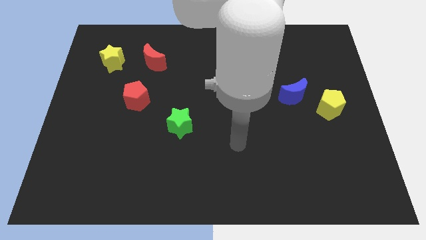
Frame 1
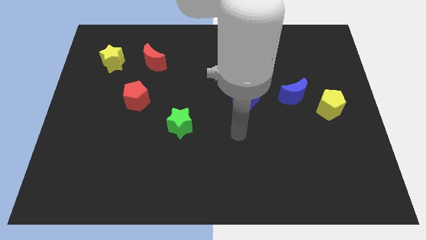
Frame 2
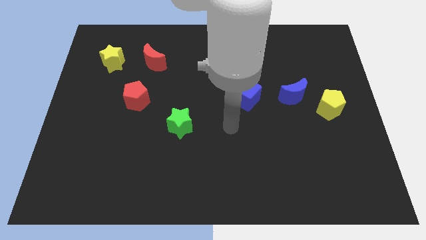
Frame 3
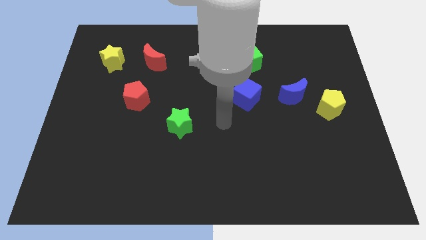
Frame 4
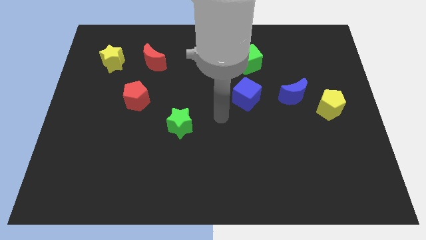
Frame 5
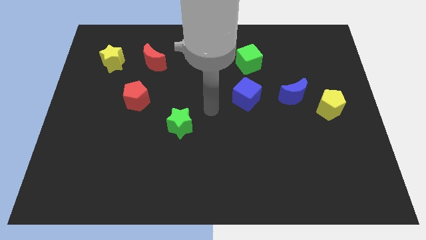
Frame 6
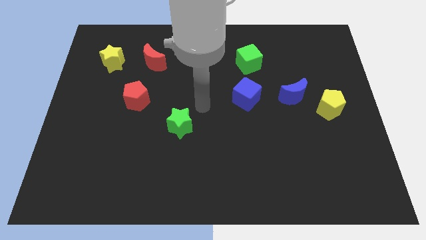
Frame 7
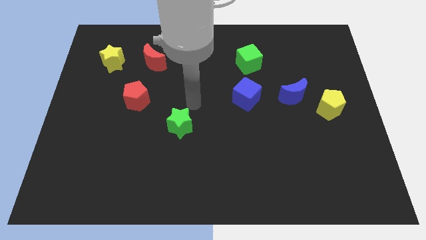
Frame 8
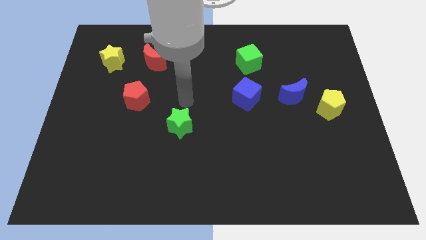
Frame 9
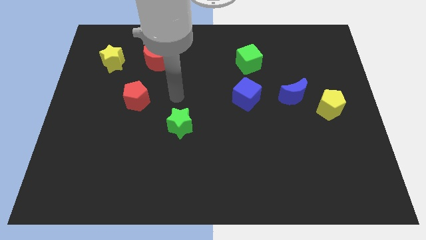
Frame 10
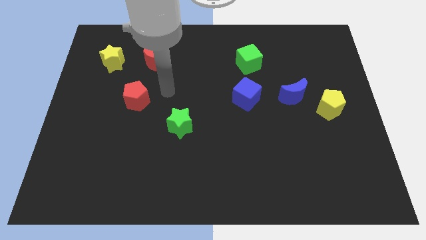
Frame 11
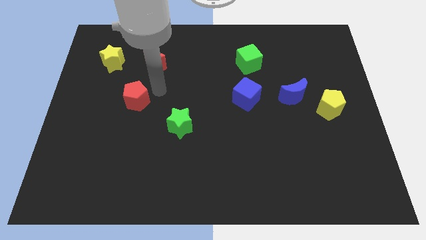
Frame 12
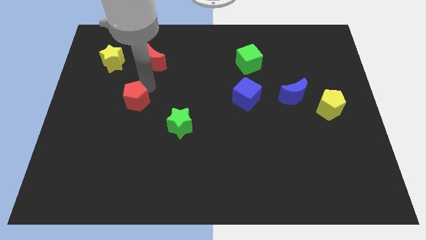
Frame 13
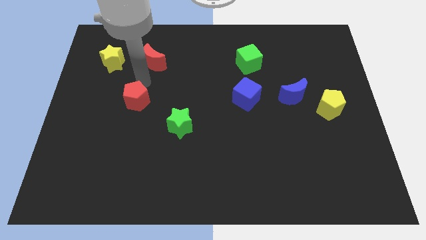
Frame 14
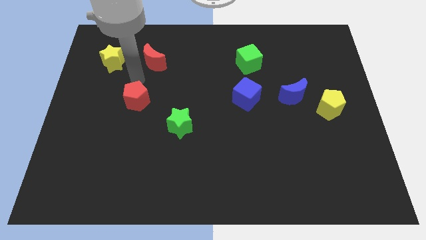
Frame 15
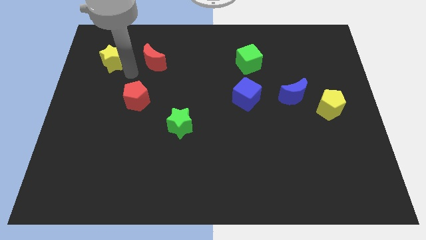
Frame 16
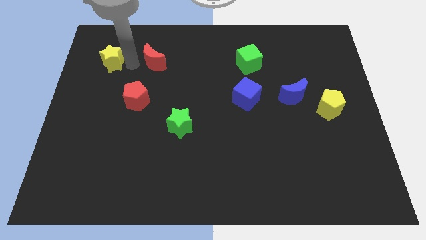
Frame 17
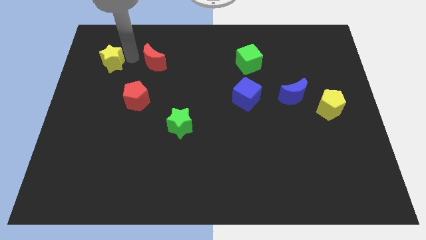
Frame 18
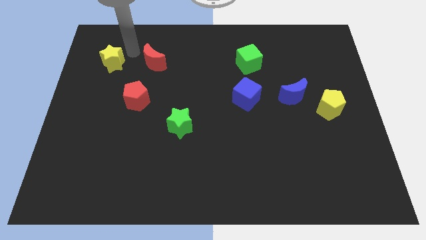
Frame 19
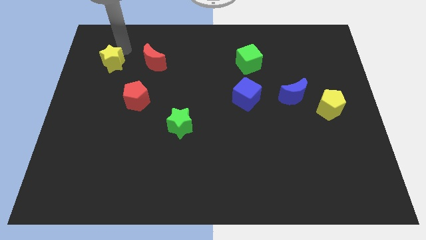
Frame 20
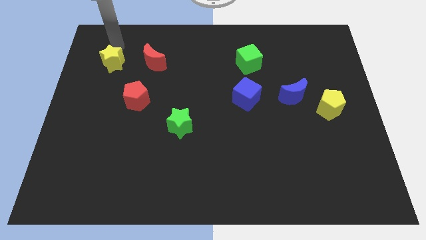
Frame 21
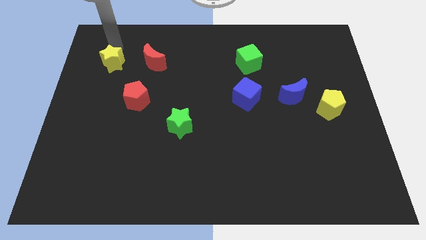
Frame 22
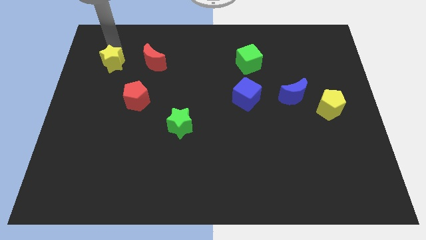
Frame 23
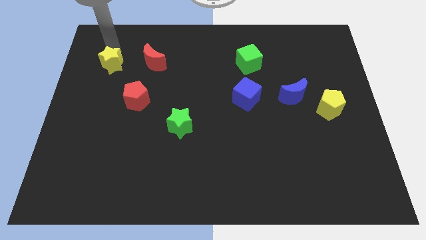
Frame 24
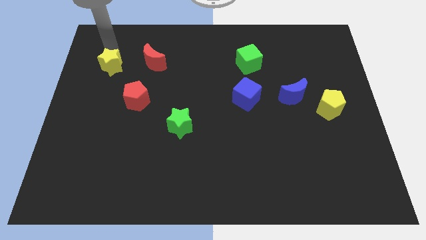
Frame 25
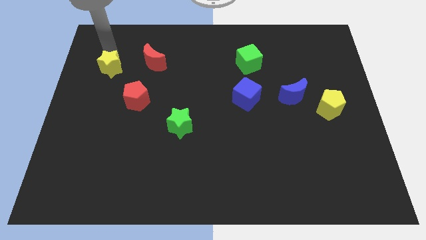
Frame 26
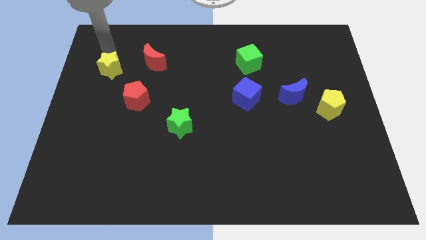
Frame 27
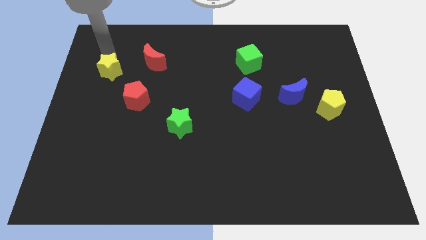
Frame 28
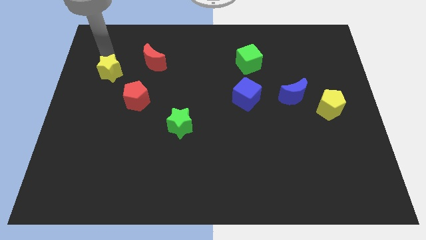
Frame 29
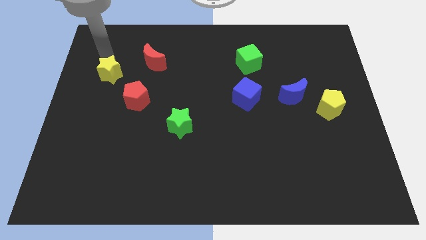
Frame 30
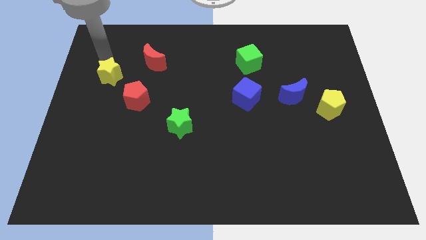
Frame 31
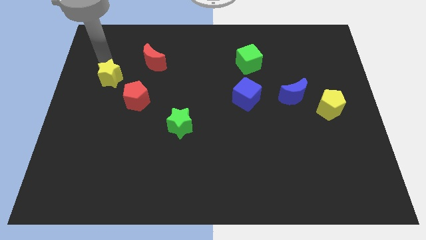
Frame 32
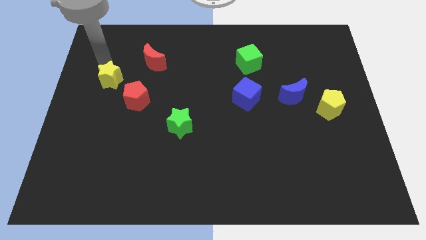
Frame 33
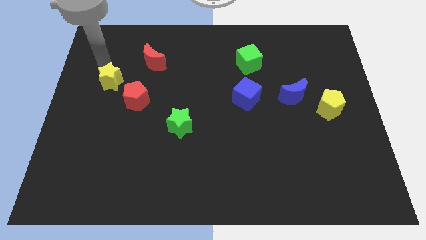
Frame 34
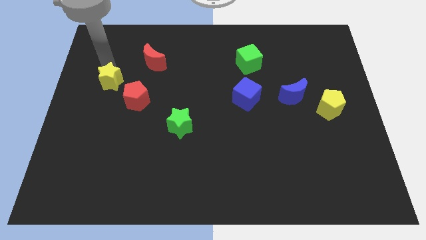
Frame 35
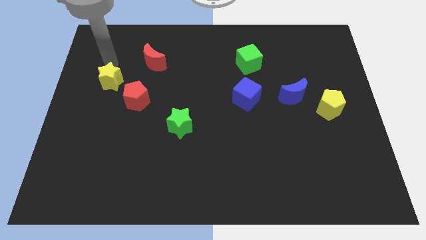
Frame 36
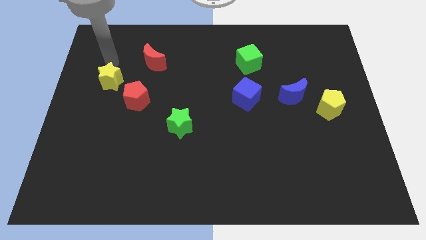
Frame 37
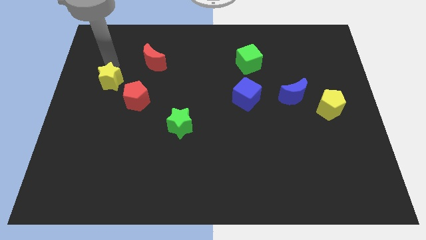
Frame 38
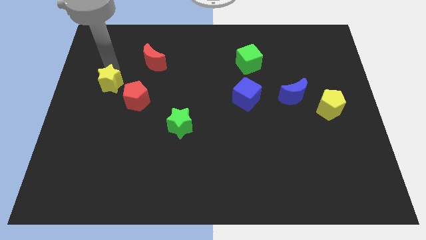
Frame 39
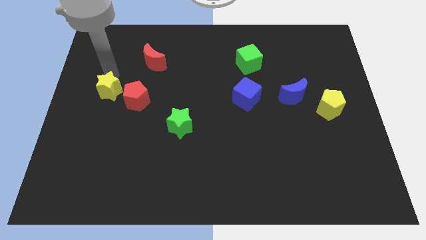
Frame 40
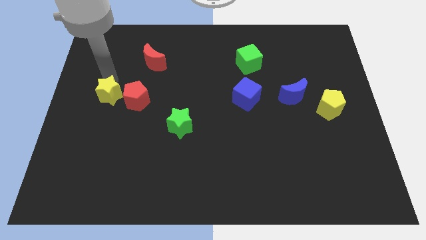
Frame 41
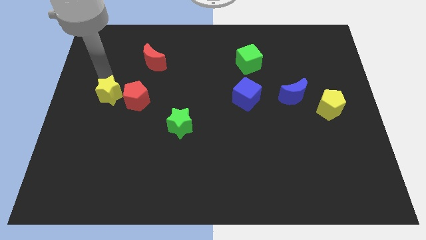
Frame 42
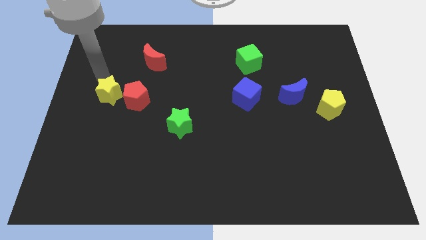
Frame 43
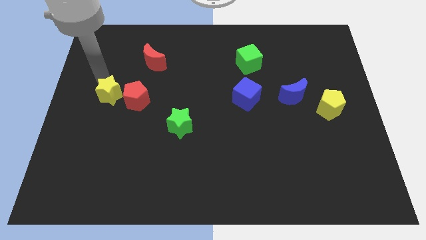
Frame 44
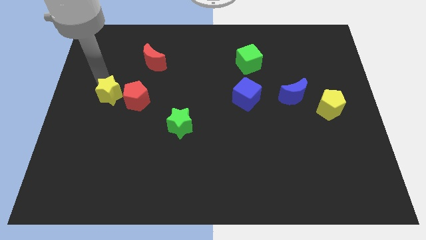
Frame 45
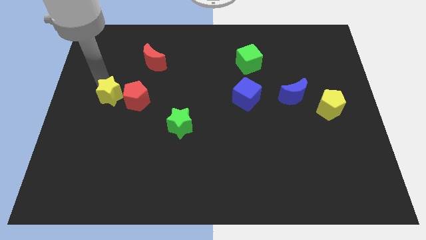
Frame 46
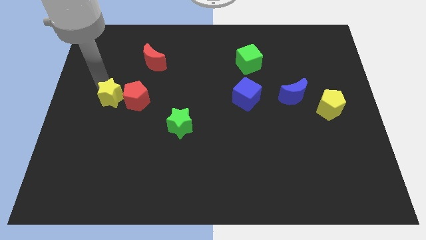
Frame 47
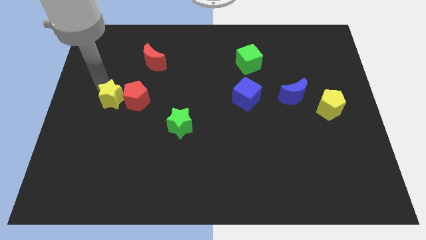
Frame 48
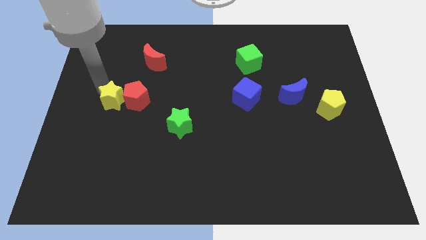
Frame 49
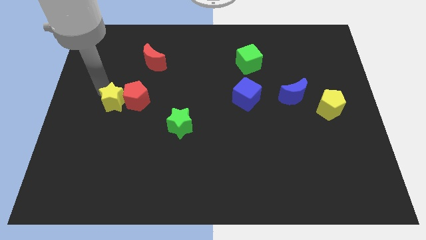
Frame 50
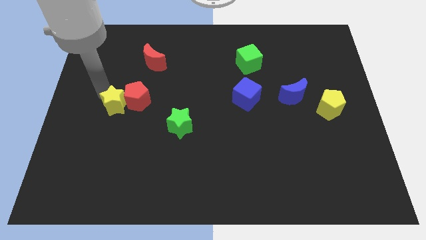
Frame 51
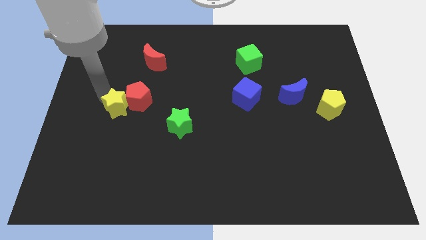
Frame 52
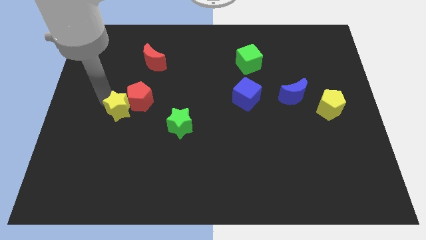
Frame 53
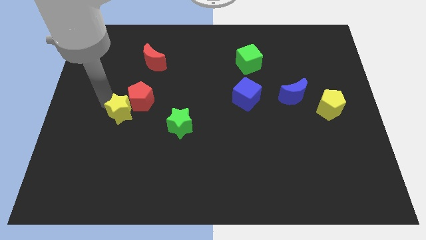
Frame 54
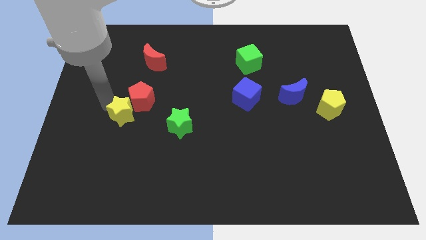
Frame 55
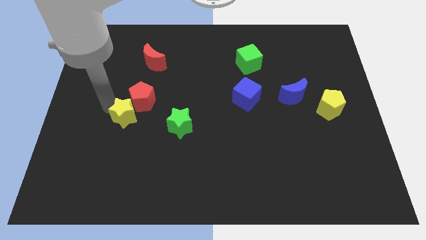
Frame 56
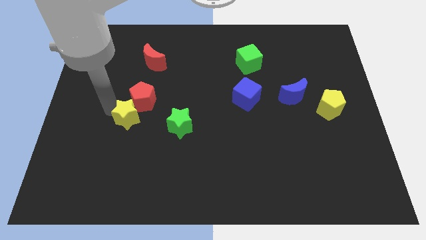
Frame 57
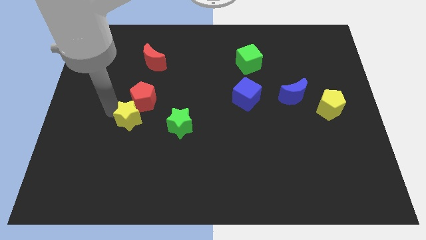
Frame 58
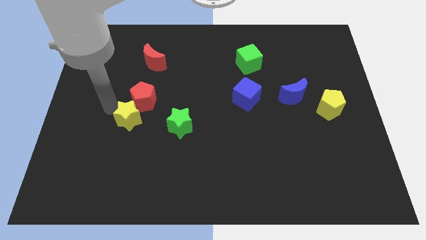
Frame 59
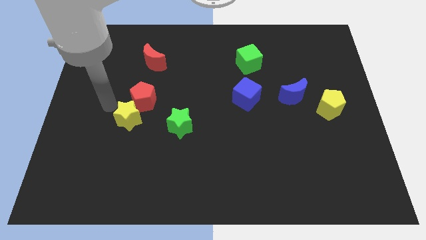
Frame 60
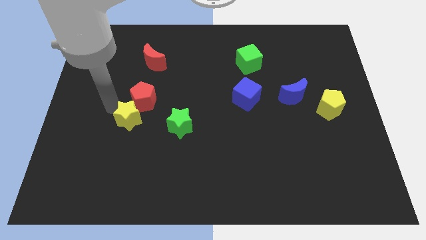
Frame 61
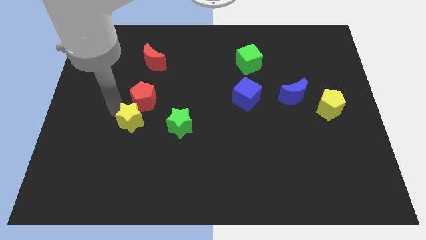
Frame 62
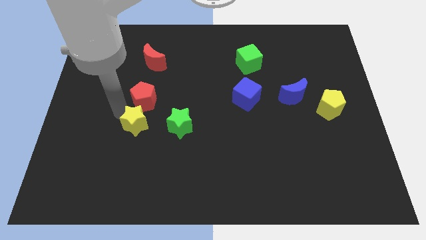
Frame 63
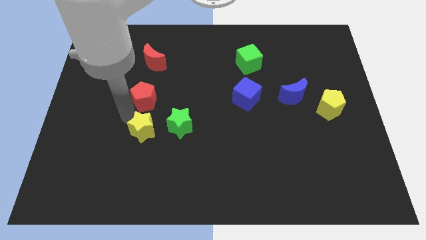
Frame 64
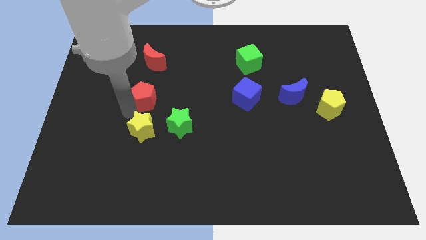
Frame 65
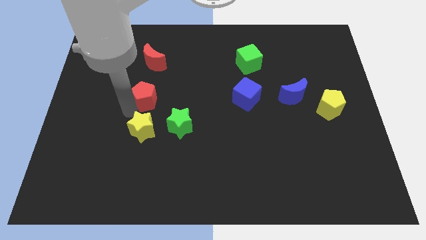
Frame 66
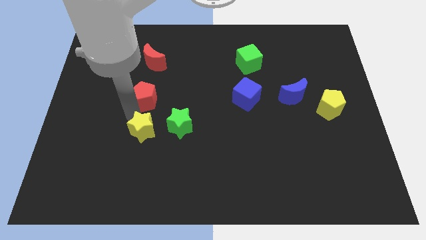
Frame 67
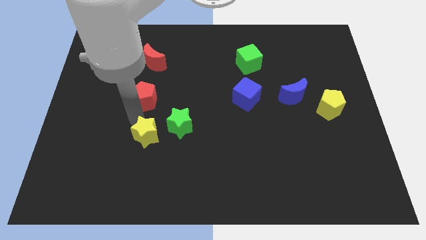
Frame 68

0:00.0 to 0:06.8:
put the yellow star to the bottom left of the green star

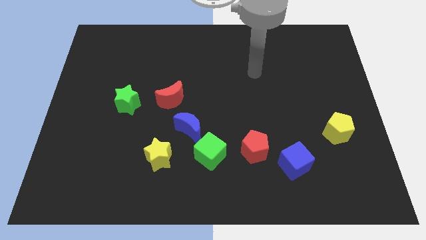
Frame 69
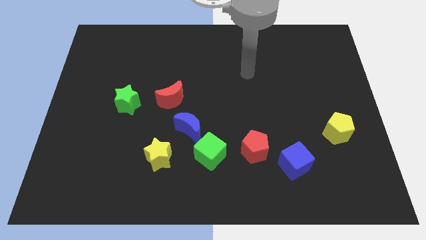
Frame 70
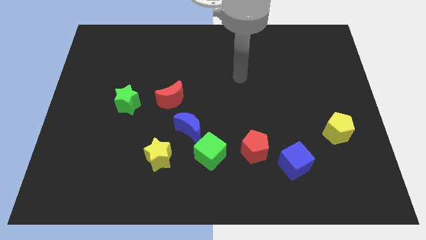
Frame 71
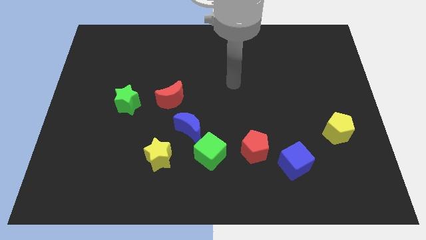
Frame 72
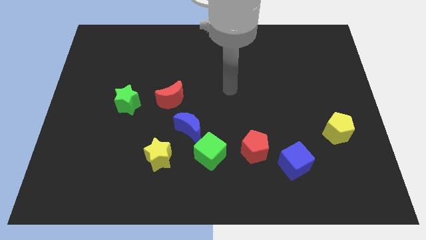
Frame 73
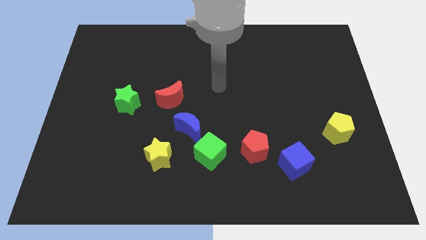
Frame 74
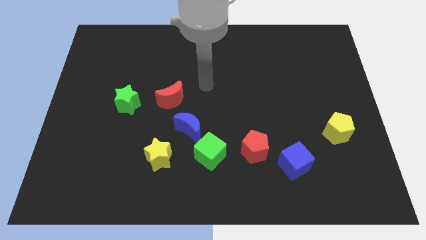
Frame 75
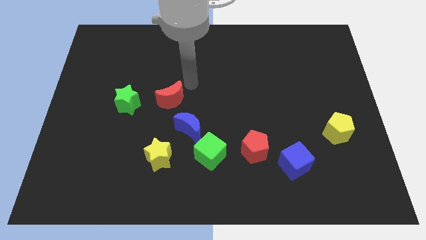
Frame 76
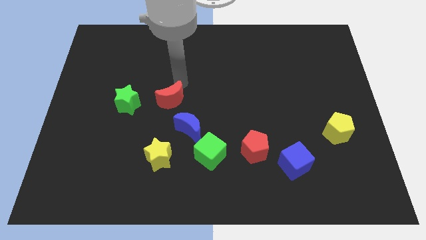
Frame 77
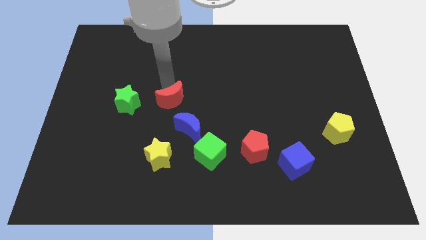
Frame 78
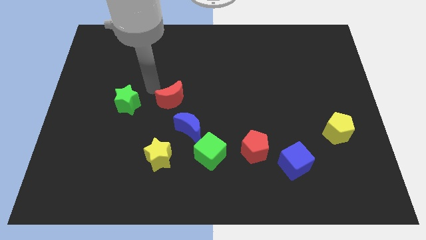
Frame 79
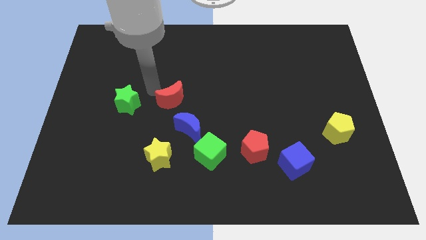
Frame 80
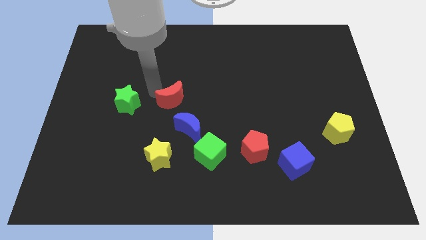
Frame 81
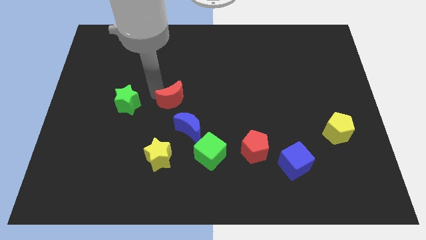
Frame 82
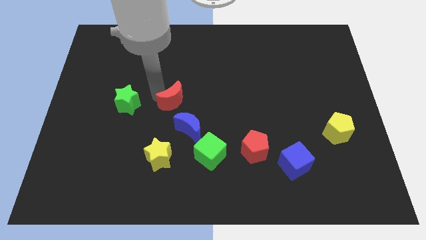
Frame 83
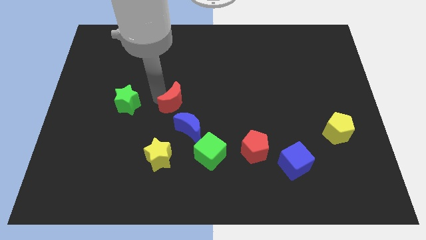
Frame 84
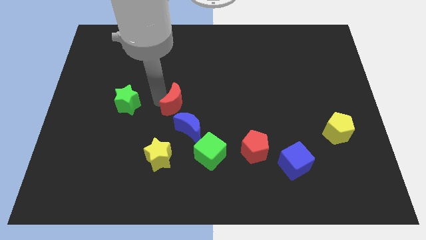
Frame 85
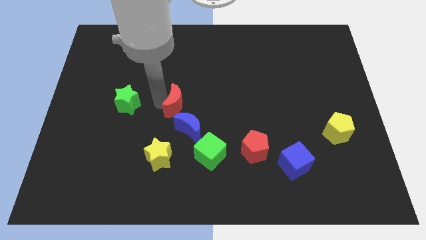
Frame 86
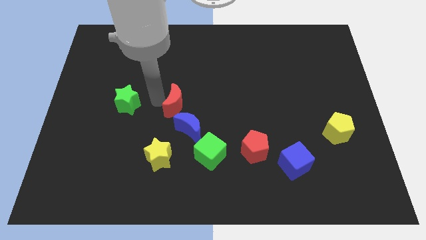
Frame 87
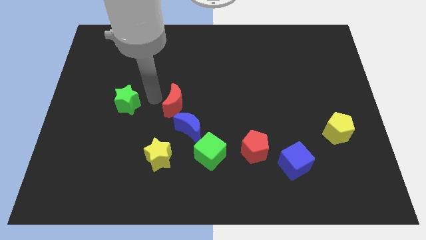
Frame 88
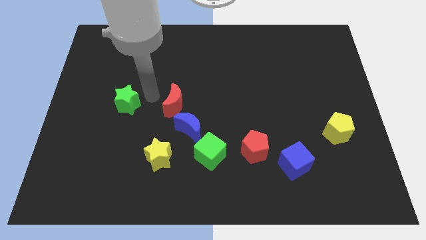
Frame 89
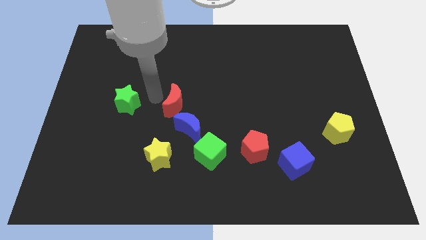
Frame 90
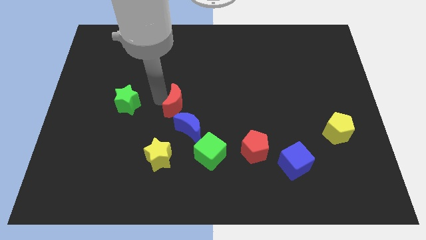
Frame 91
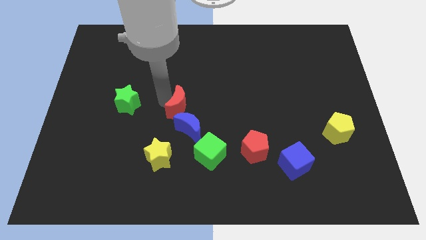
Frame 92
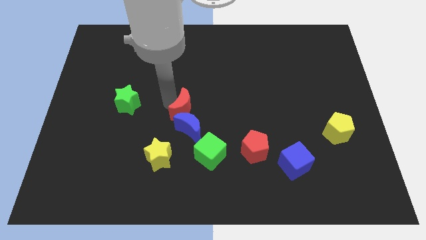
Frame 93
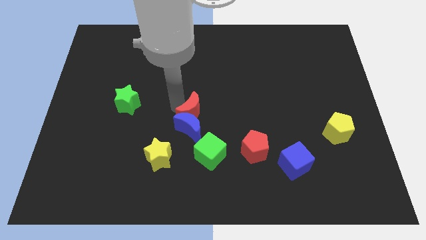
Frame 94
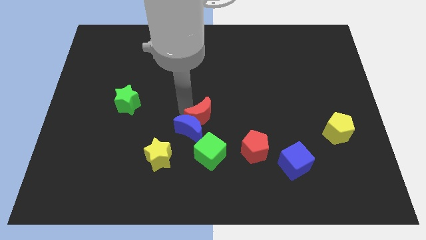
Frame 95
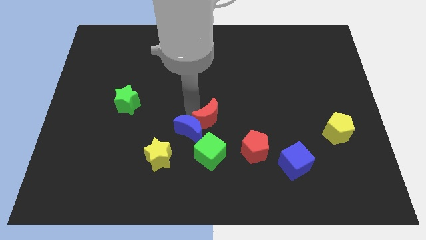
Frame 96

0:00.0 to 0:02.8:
move the red moon to the top left of the red pentagon
